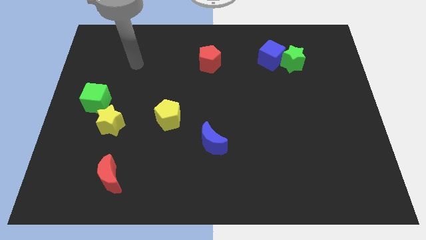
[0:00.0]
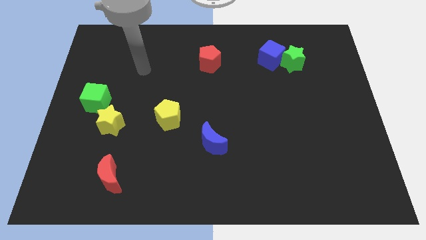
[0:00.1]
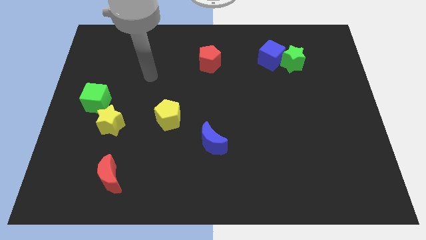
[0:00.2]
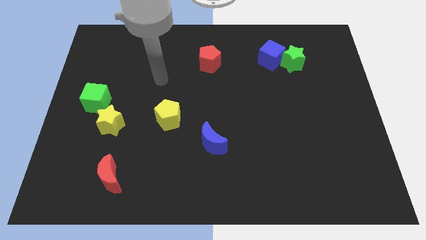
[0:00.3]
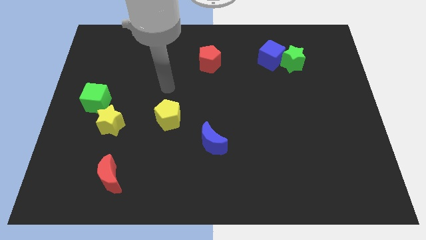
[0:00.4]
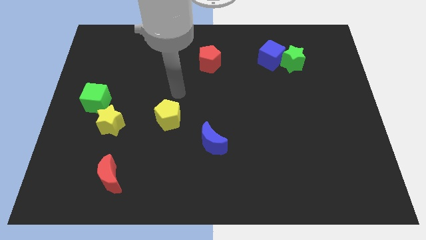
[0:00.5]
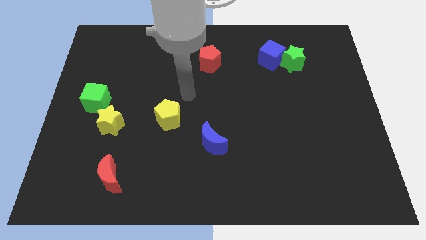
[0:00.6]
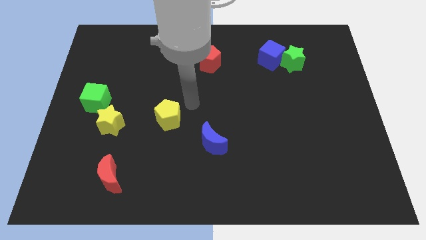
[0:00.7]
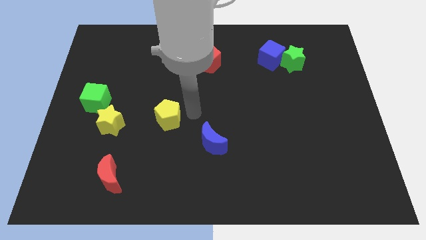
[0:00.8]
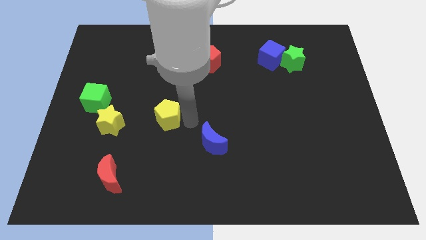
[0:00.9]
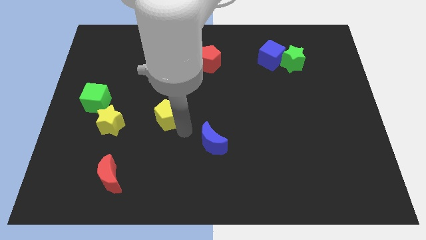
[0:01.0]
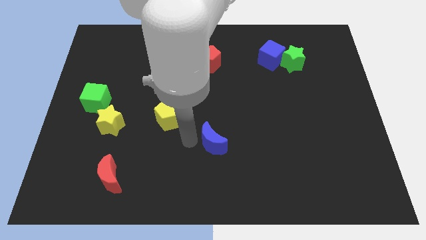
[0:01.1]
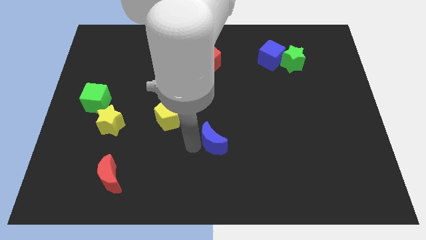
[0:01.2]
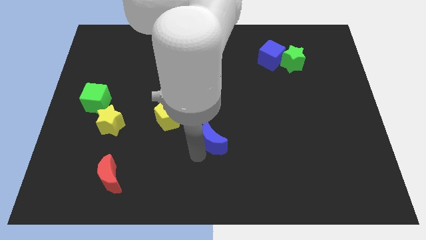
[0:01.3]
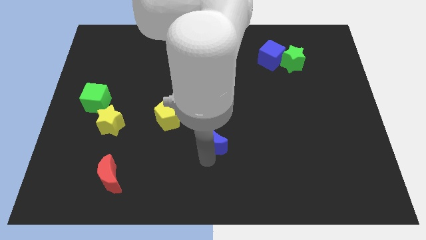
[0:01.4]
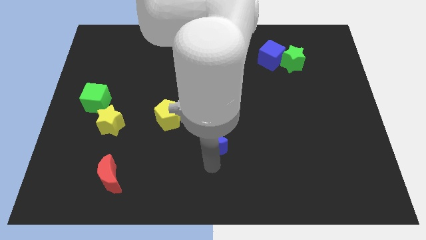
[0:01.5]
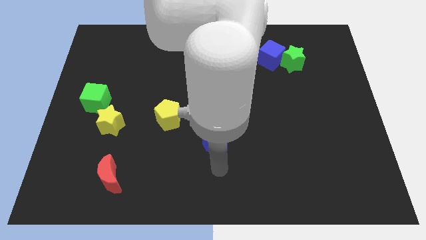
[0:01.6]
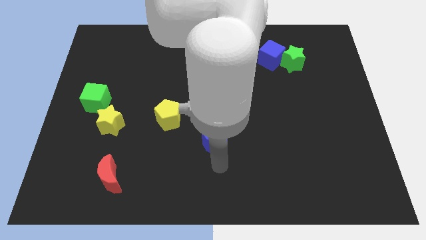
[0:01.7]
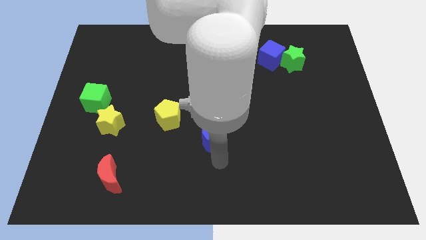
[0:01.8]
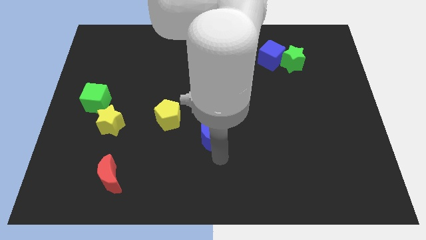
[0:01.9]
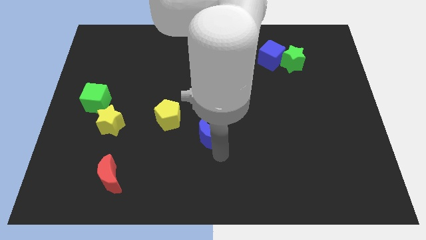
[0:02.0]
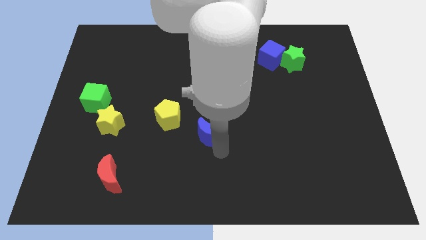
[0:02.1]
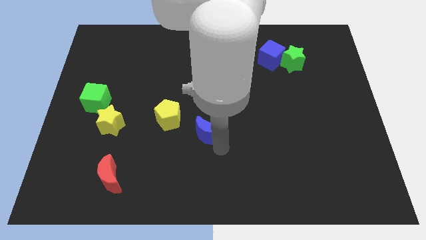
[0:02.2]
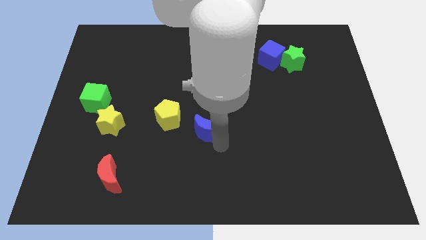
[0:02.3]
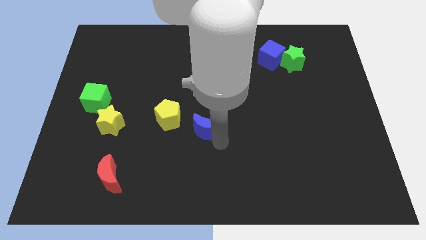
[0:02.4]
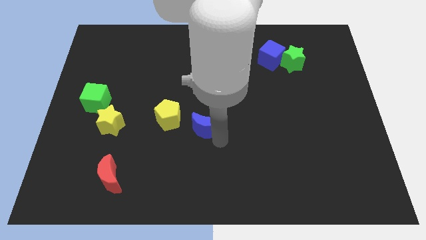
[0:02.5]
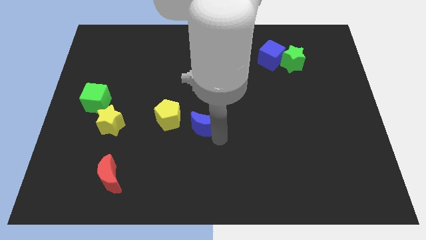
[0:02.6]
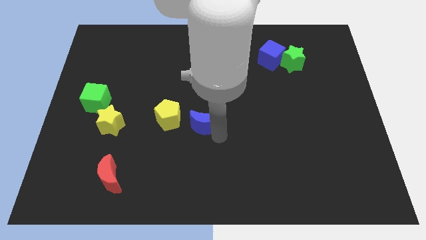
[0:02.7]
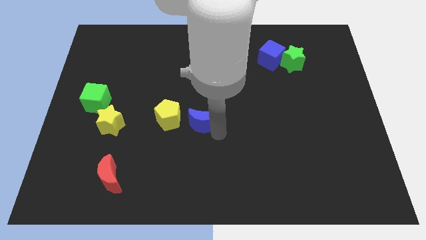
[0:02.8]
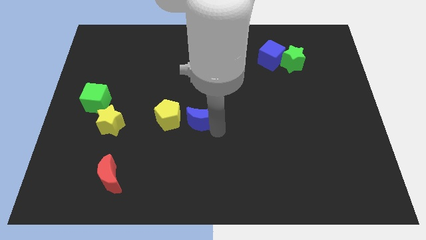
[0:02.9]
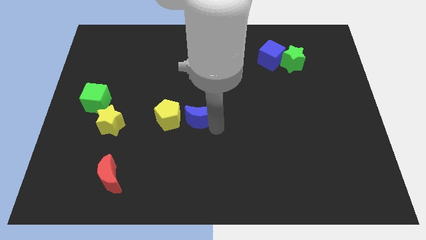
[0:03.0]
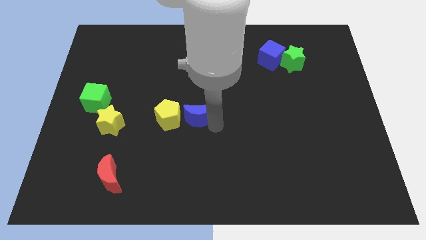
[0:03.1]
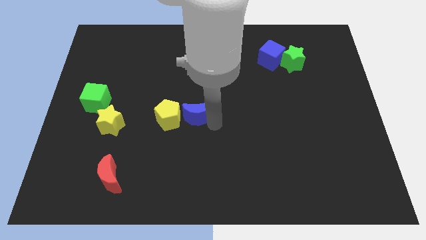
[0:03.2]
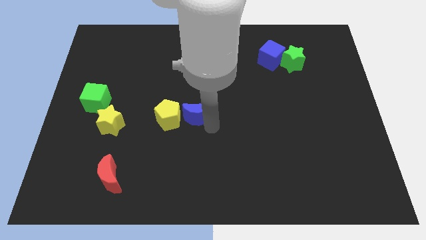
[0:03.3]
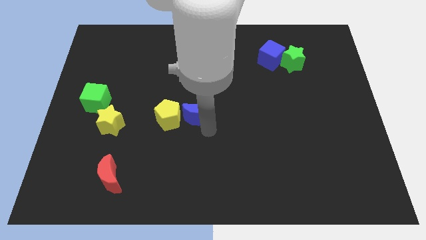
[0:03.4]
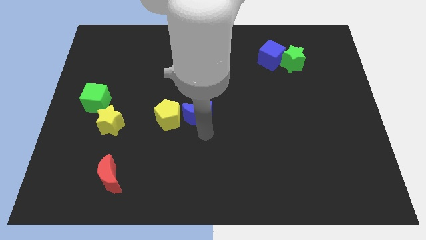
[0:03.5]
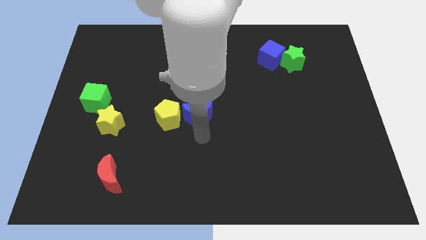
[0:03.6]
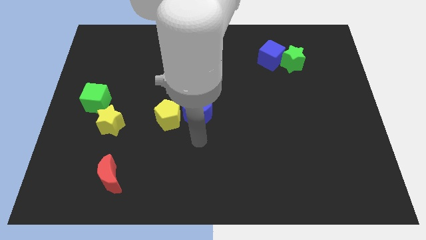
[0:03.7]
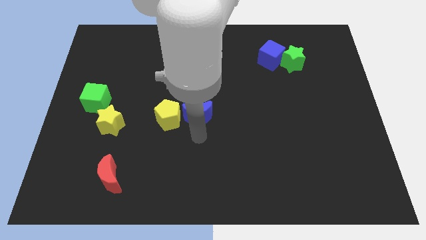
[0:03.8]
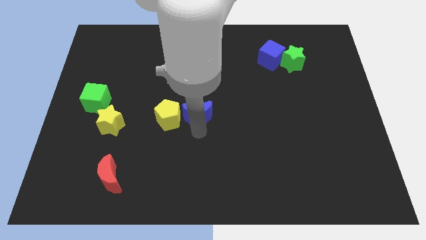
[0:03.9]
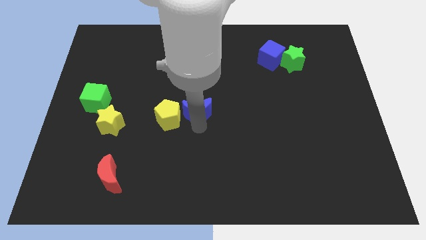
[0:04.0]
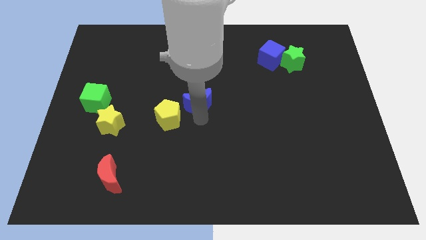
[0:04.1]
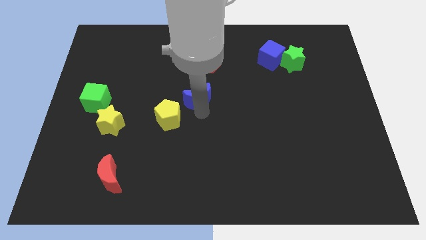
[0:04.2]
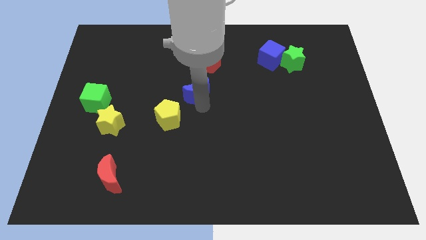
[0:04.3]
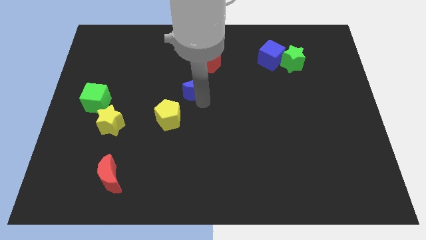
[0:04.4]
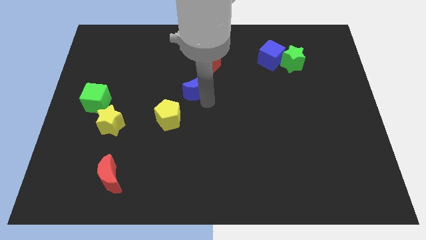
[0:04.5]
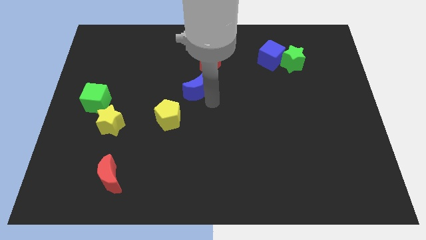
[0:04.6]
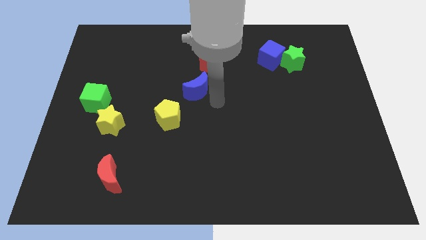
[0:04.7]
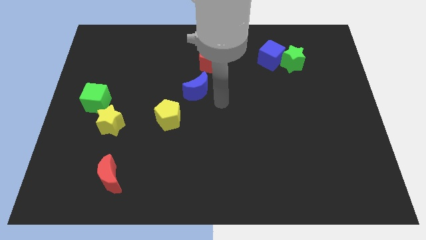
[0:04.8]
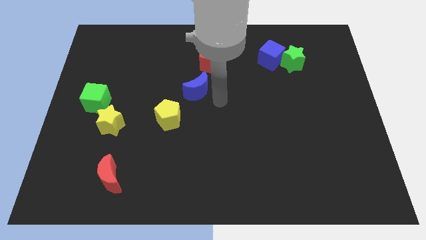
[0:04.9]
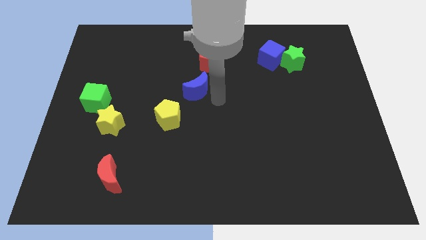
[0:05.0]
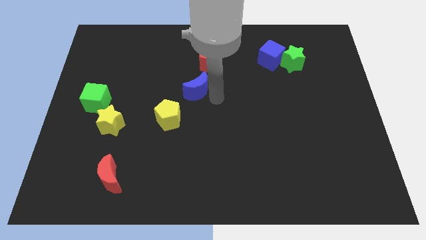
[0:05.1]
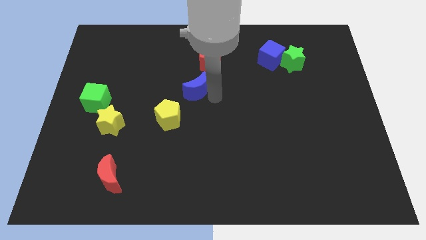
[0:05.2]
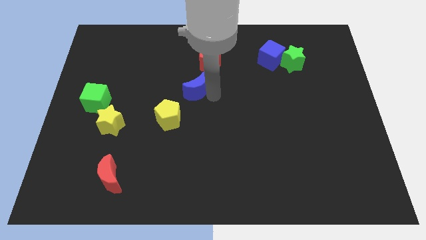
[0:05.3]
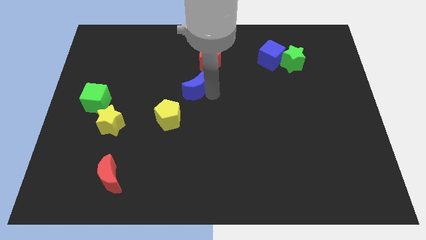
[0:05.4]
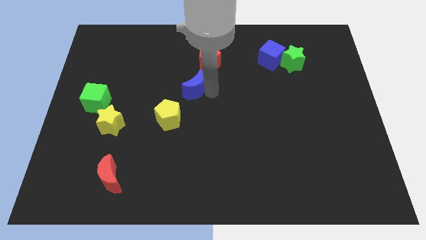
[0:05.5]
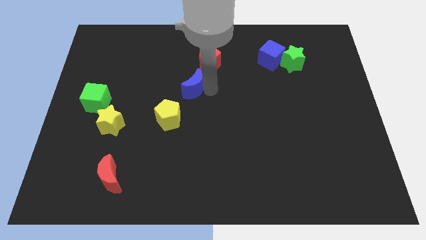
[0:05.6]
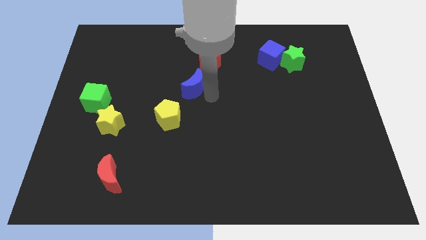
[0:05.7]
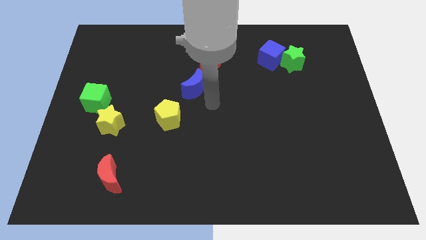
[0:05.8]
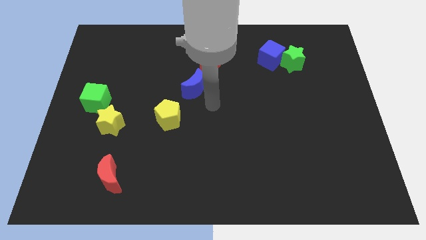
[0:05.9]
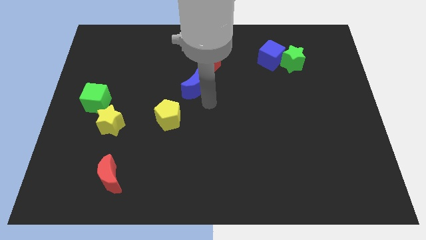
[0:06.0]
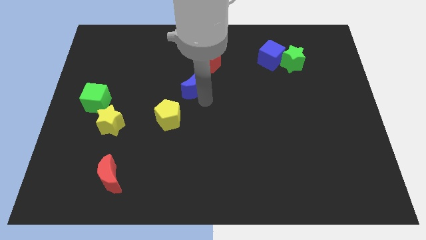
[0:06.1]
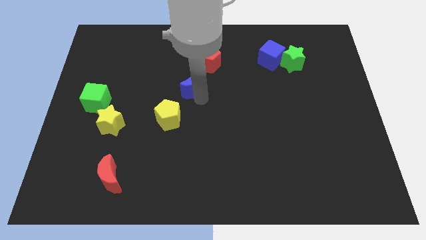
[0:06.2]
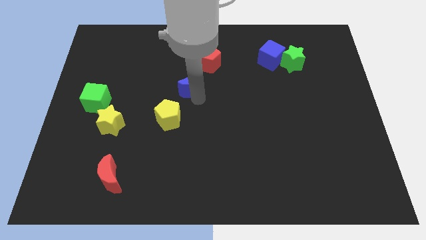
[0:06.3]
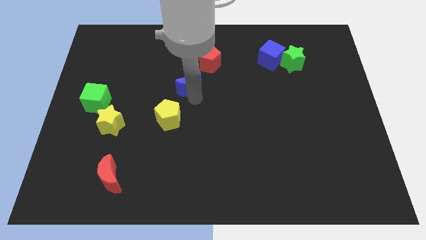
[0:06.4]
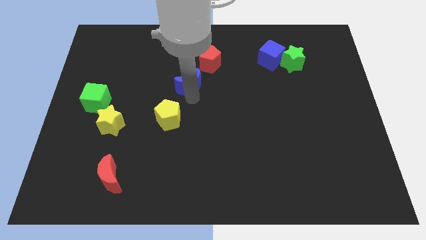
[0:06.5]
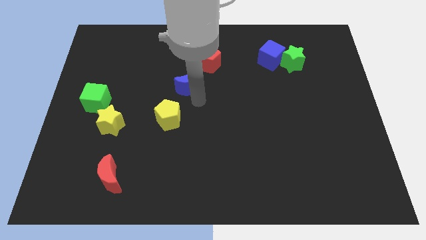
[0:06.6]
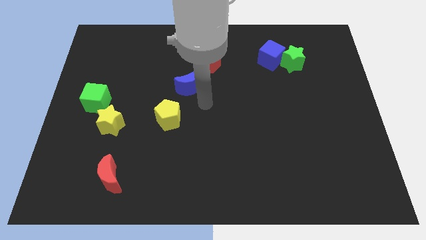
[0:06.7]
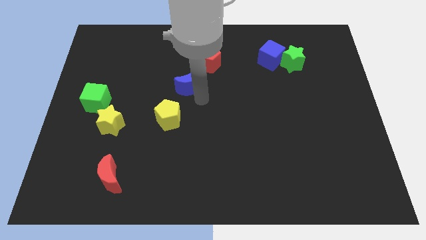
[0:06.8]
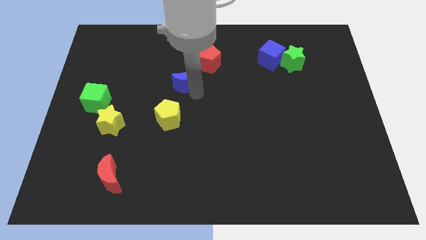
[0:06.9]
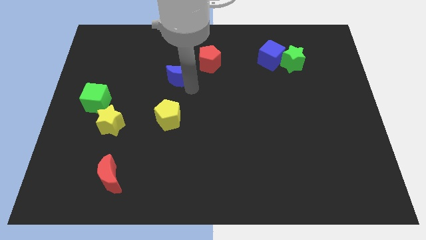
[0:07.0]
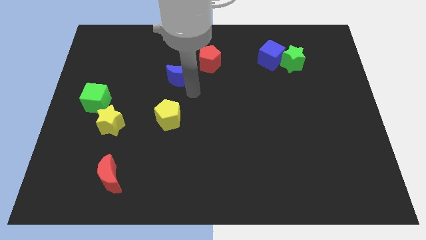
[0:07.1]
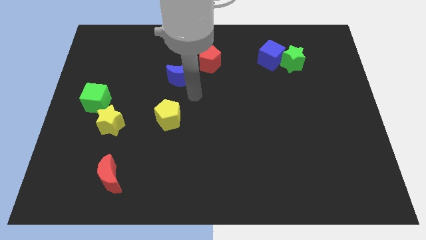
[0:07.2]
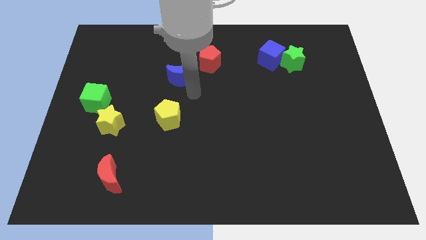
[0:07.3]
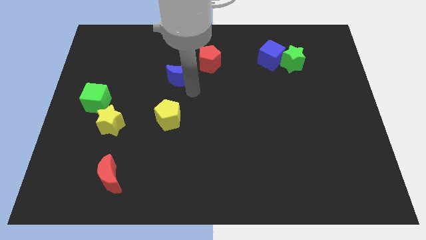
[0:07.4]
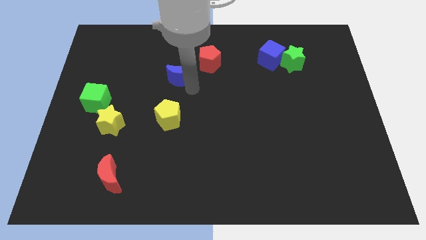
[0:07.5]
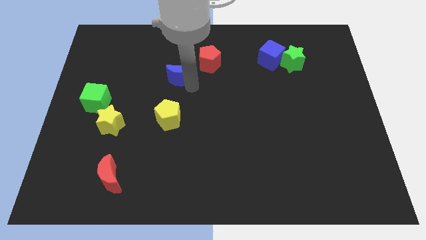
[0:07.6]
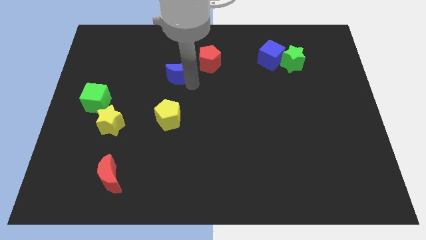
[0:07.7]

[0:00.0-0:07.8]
slide the blue moon left of the red pentagon
